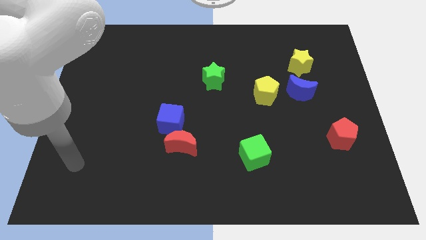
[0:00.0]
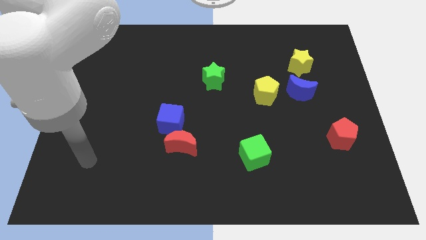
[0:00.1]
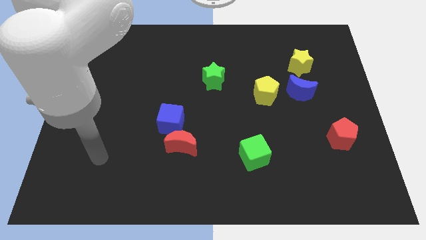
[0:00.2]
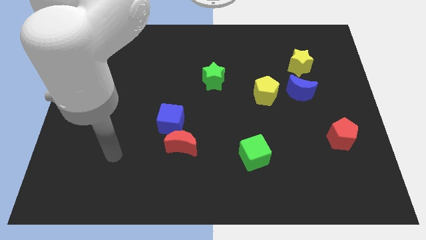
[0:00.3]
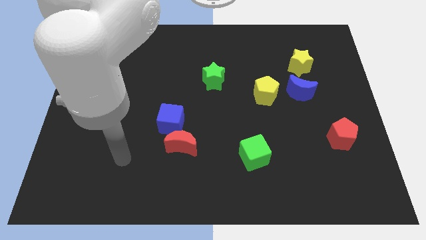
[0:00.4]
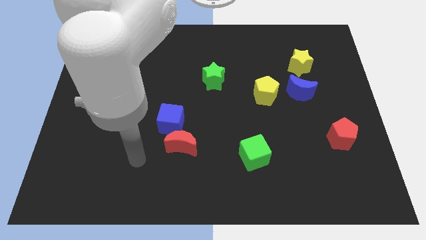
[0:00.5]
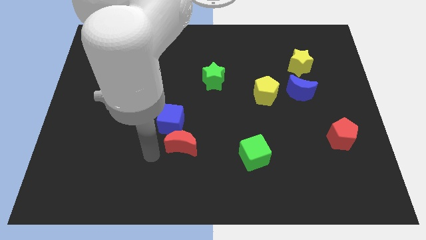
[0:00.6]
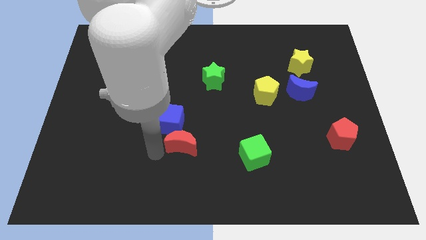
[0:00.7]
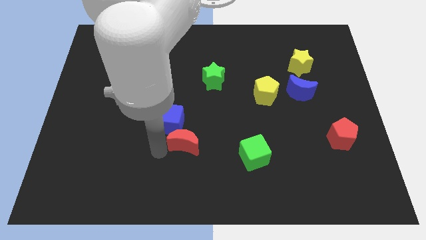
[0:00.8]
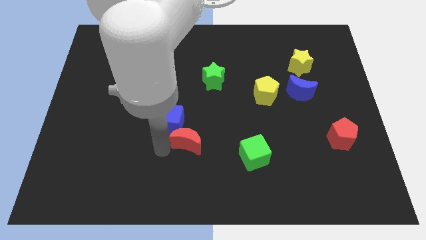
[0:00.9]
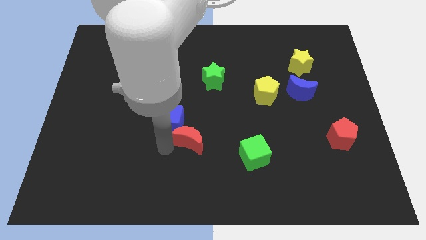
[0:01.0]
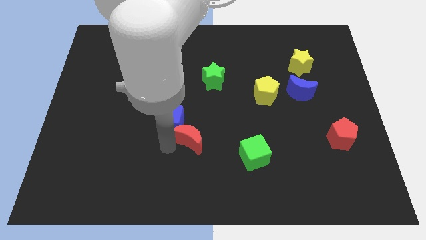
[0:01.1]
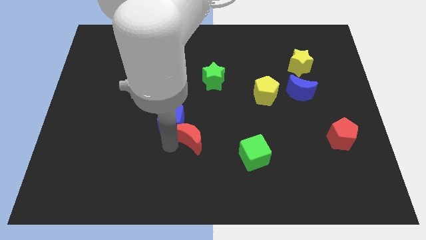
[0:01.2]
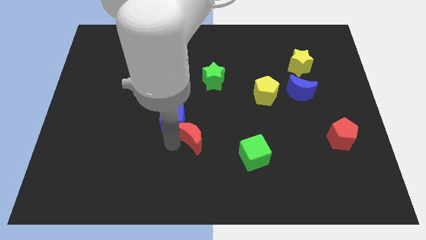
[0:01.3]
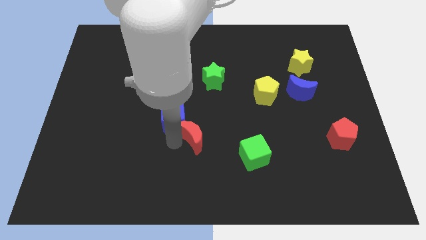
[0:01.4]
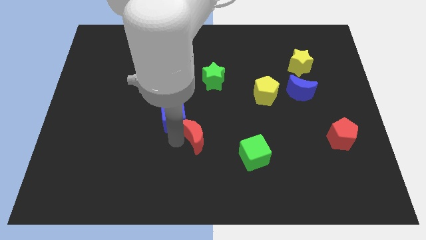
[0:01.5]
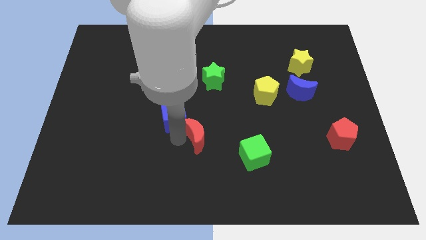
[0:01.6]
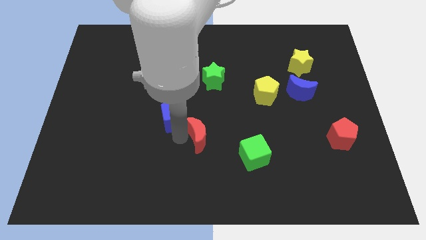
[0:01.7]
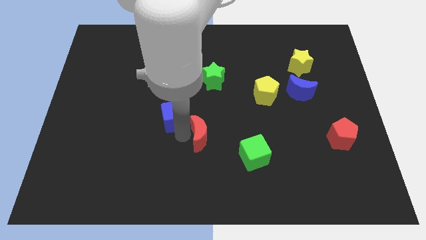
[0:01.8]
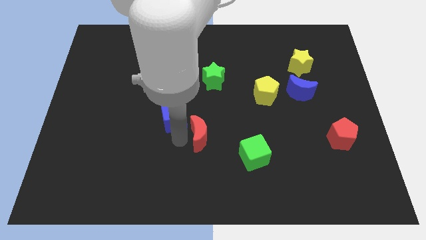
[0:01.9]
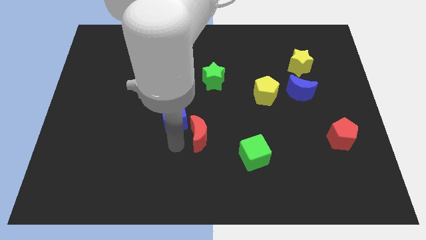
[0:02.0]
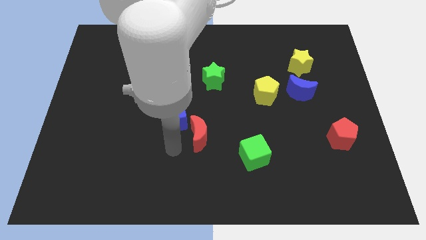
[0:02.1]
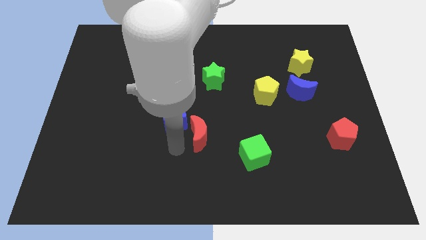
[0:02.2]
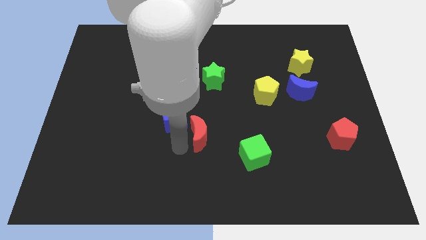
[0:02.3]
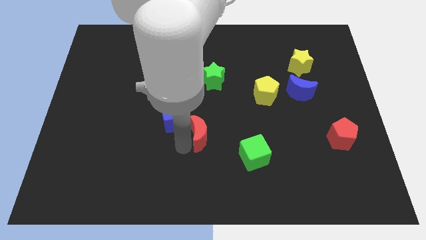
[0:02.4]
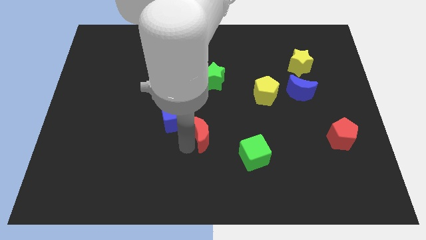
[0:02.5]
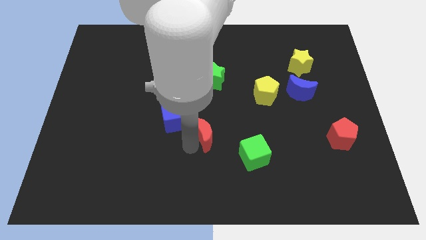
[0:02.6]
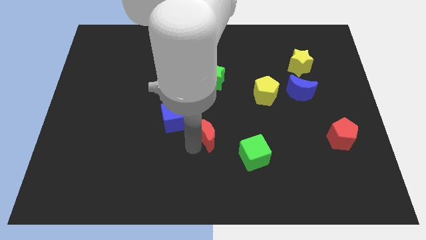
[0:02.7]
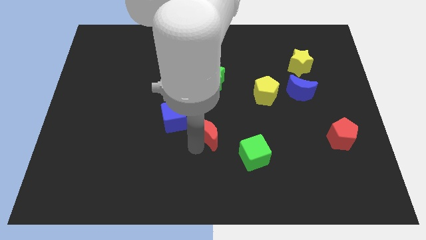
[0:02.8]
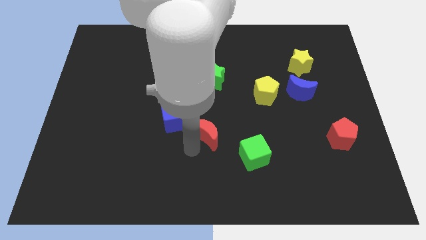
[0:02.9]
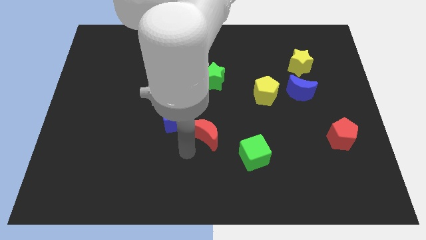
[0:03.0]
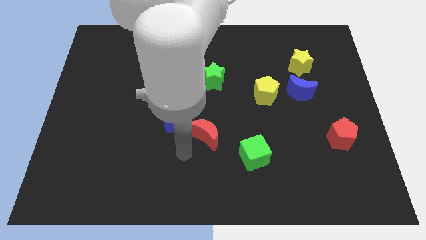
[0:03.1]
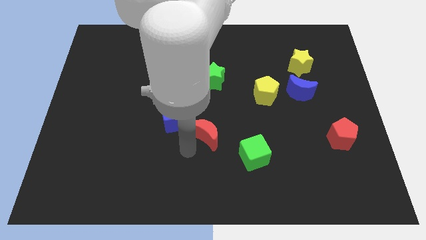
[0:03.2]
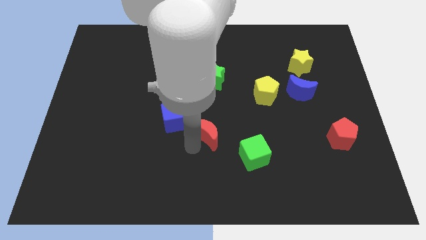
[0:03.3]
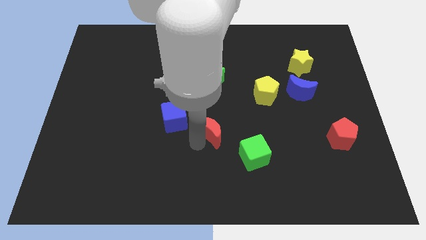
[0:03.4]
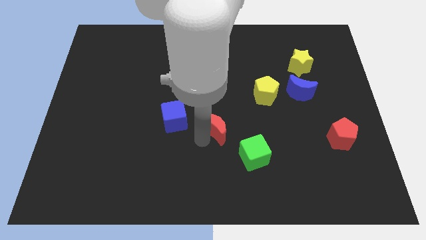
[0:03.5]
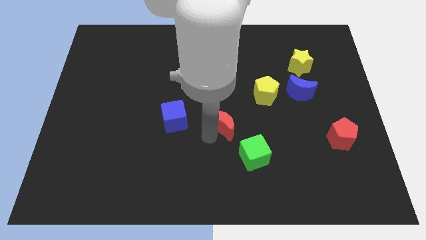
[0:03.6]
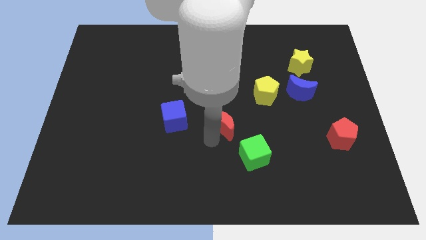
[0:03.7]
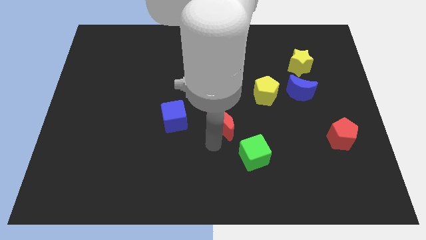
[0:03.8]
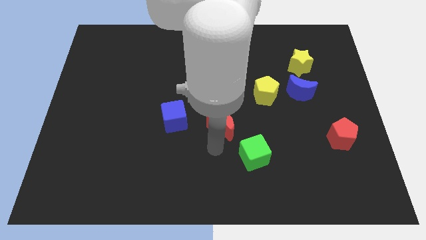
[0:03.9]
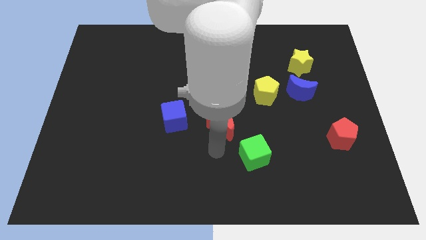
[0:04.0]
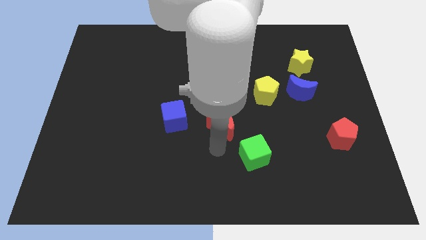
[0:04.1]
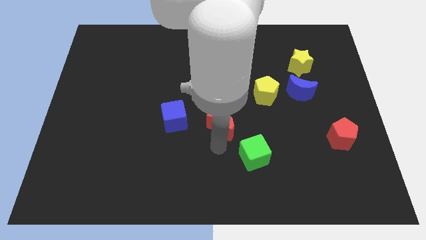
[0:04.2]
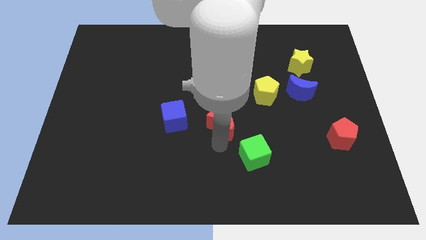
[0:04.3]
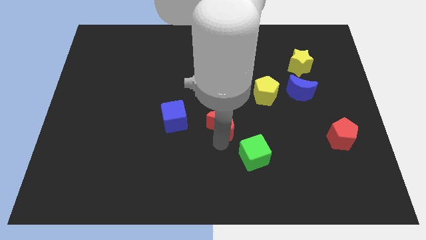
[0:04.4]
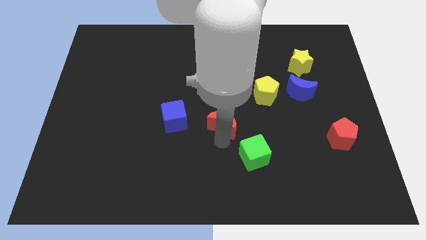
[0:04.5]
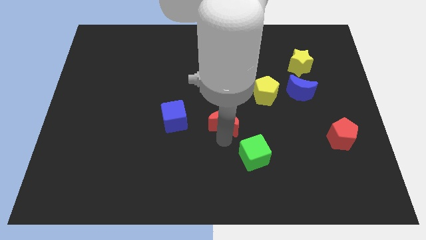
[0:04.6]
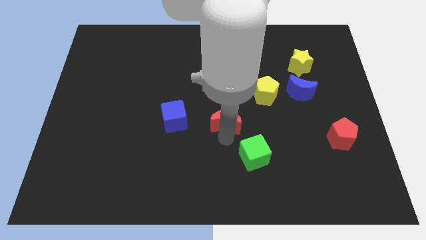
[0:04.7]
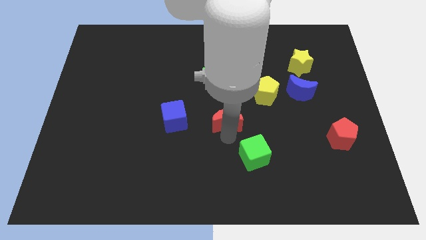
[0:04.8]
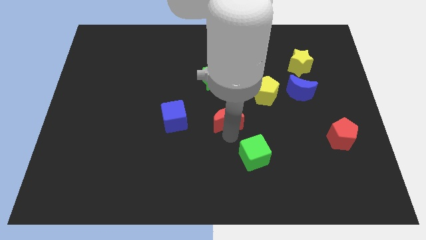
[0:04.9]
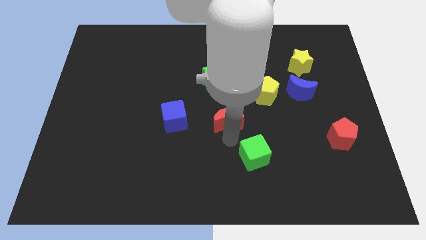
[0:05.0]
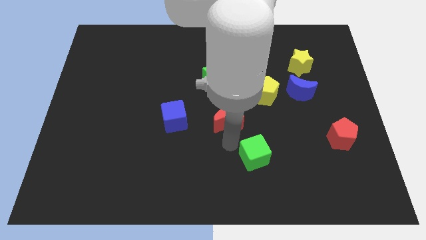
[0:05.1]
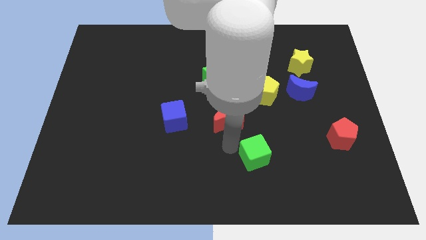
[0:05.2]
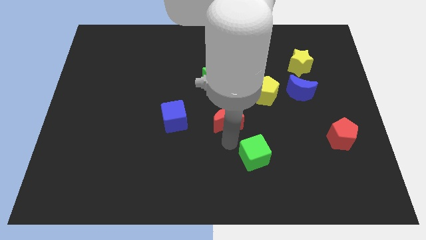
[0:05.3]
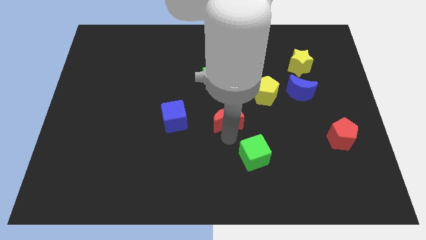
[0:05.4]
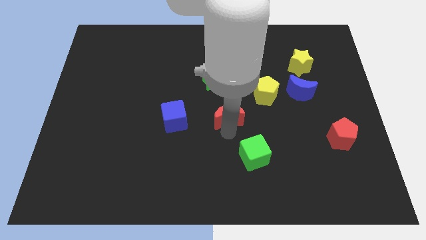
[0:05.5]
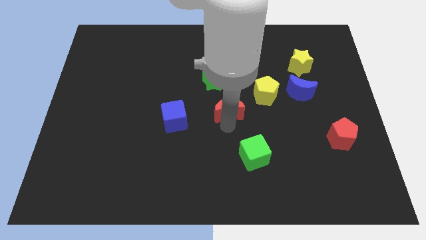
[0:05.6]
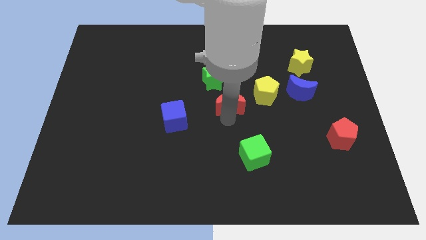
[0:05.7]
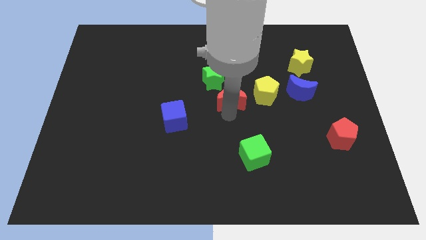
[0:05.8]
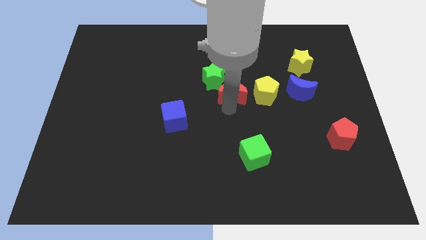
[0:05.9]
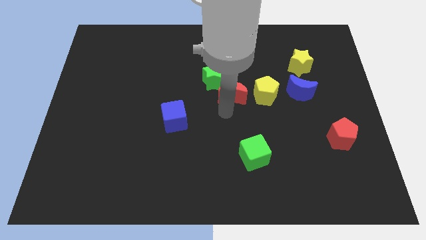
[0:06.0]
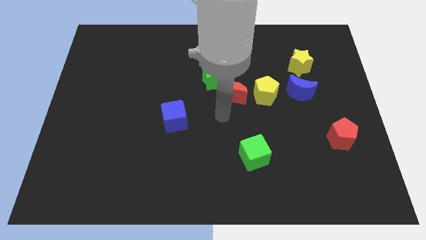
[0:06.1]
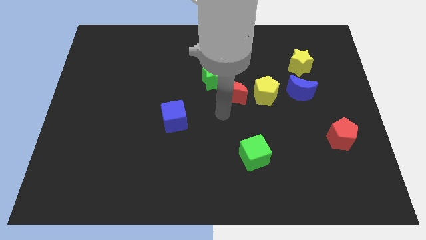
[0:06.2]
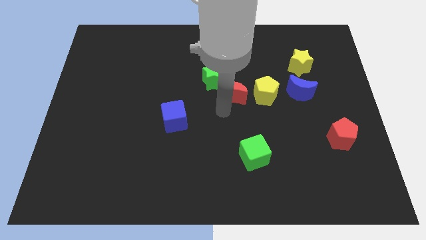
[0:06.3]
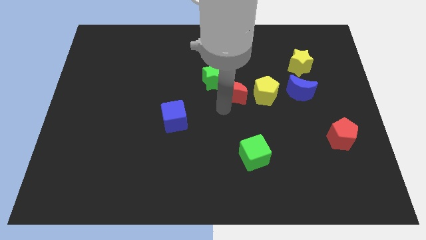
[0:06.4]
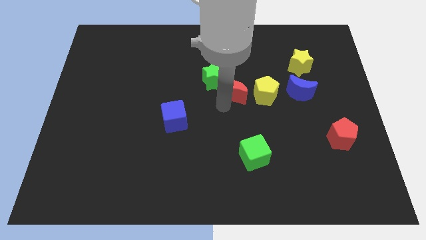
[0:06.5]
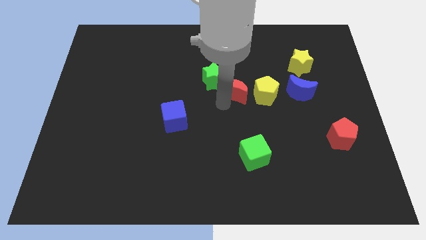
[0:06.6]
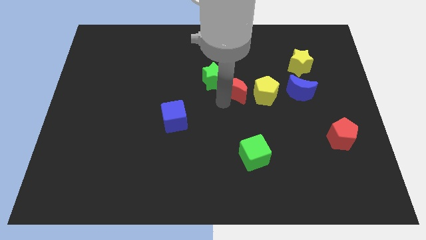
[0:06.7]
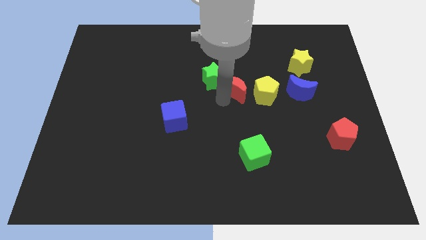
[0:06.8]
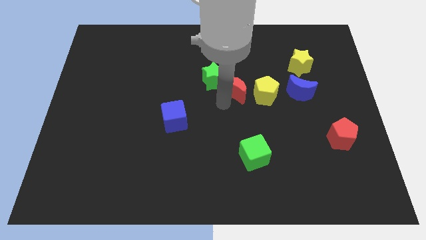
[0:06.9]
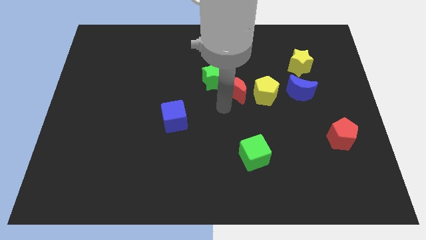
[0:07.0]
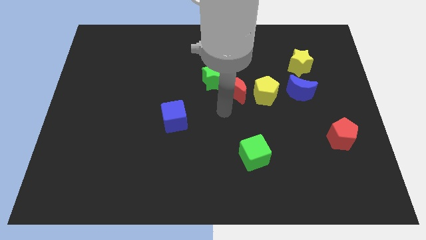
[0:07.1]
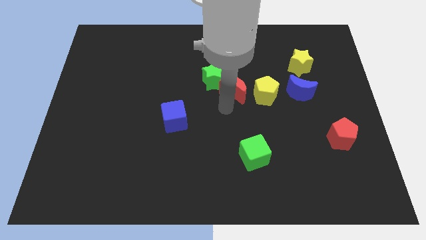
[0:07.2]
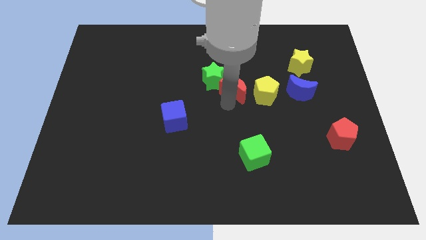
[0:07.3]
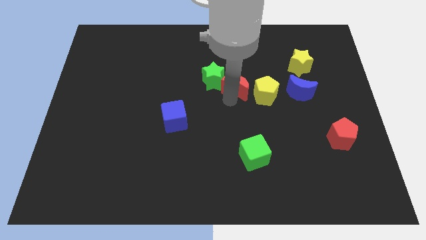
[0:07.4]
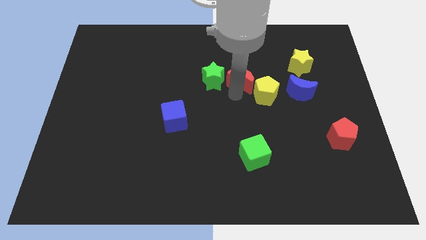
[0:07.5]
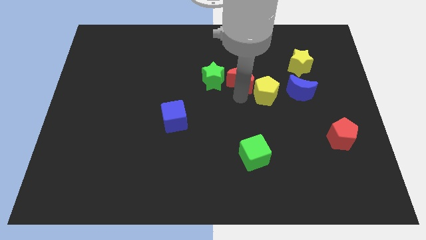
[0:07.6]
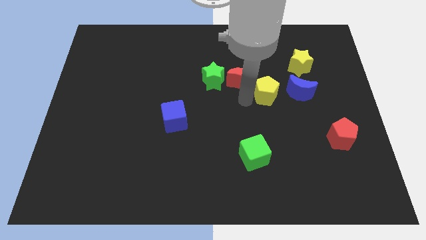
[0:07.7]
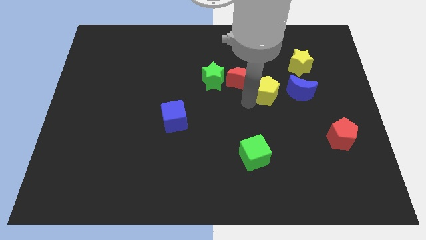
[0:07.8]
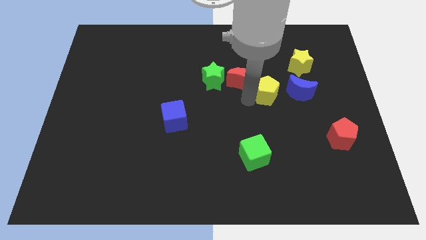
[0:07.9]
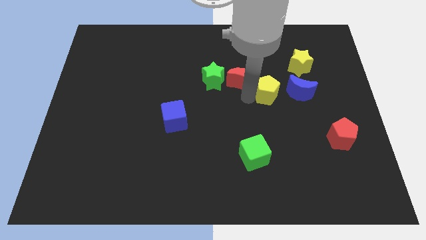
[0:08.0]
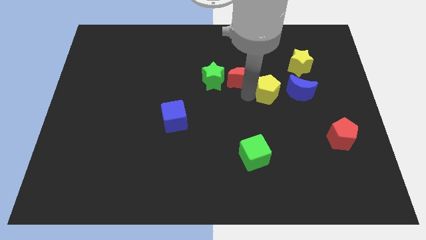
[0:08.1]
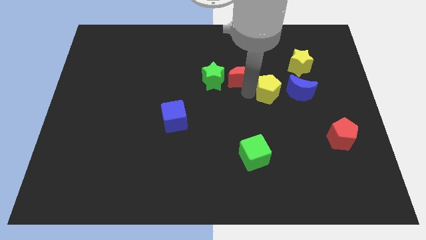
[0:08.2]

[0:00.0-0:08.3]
slide the red moon diagonally up and to the right of the green star
